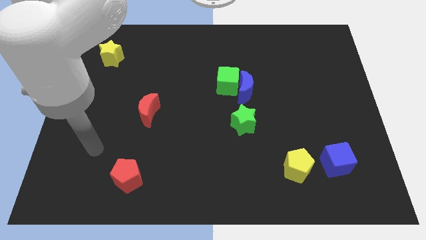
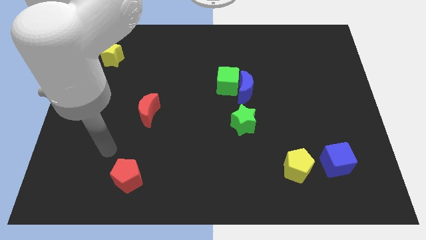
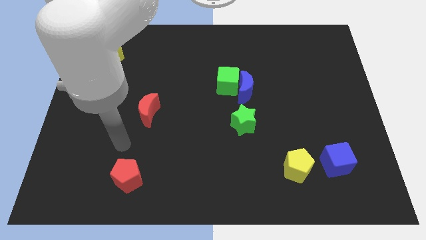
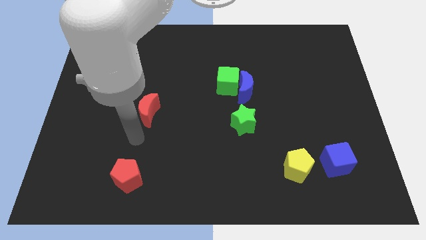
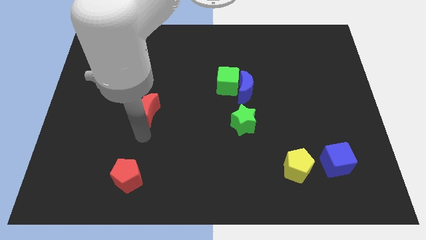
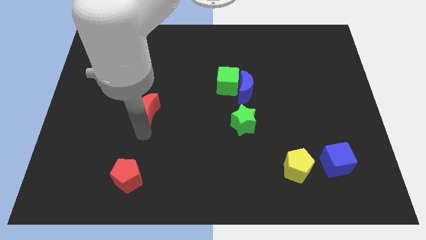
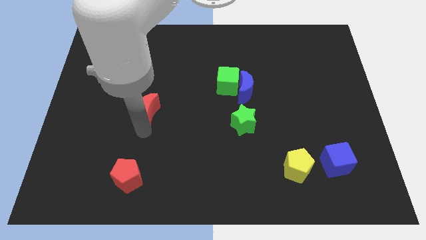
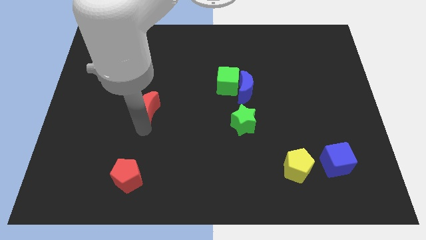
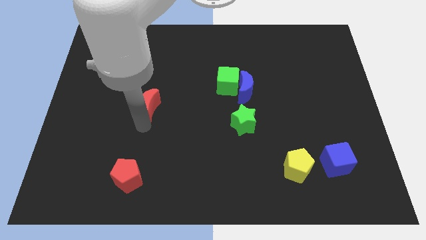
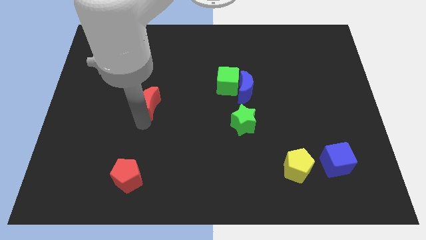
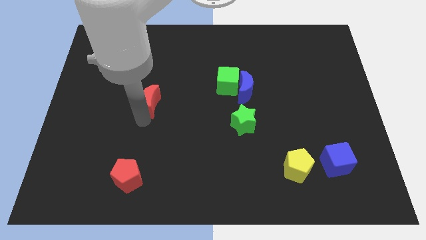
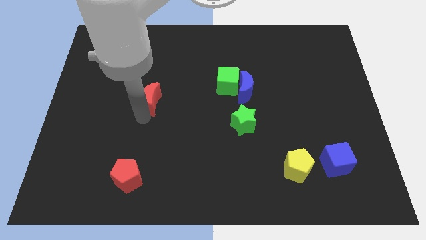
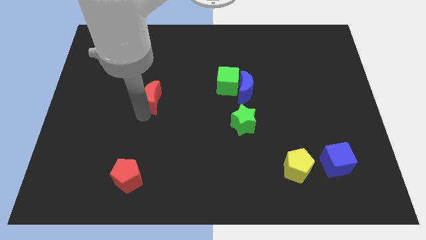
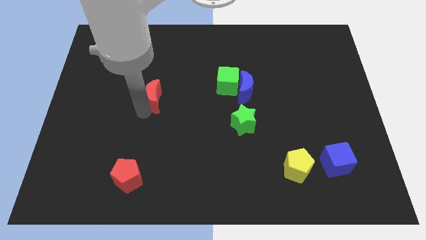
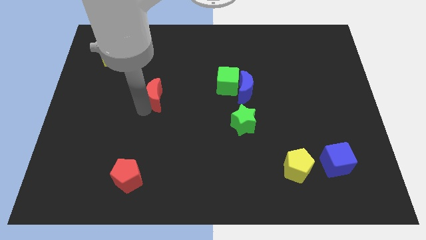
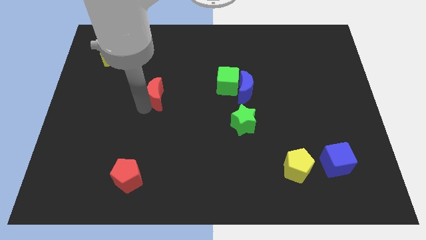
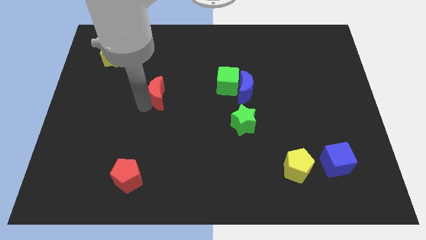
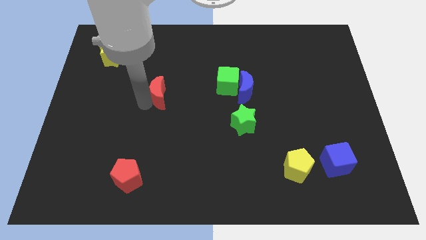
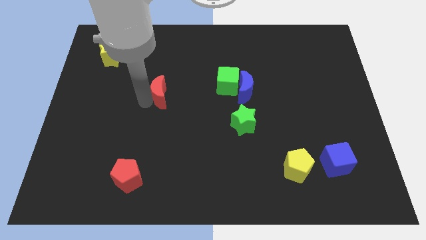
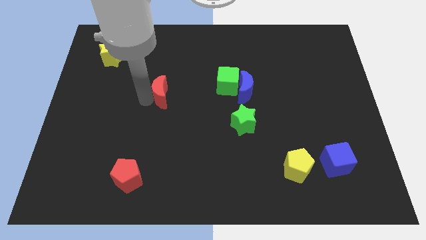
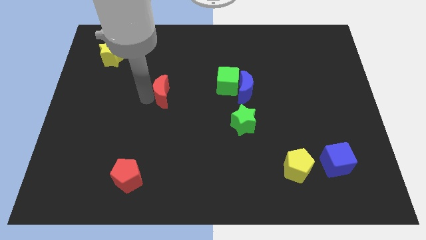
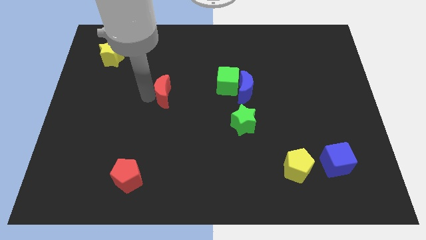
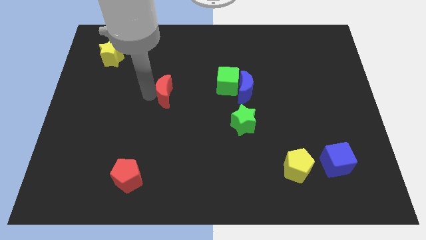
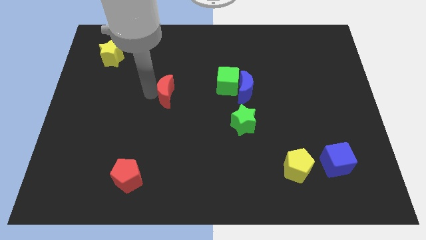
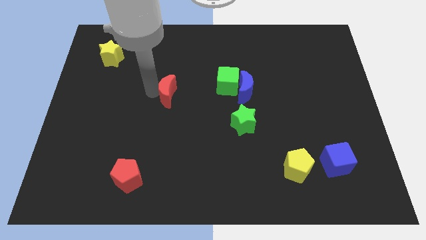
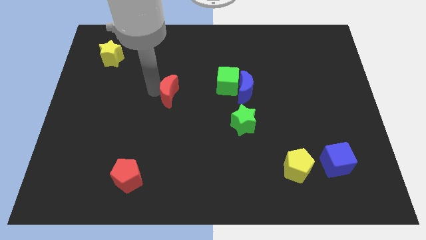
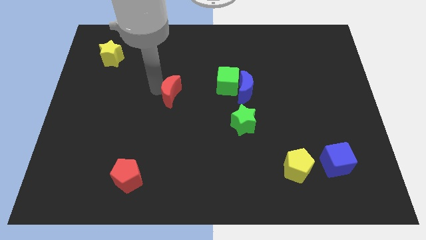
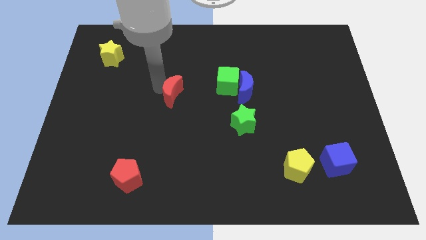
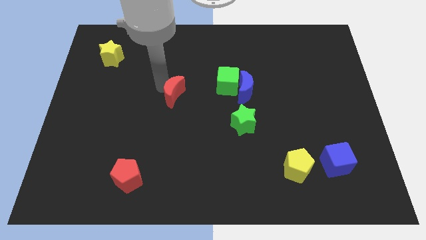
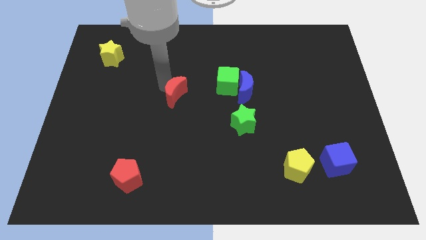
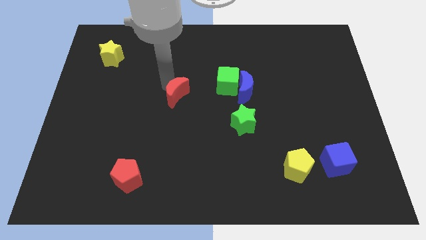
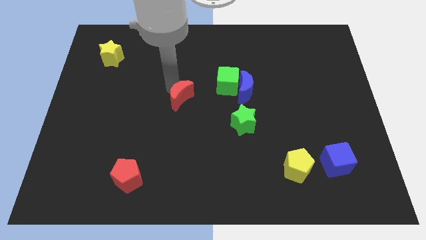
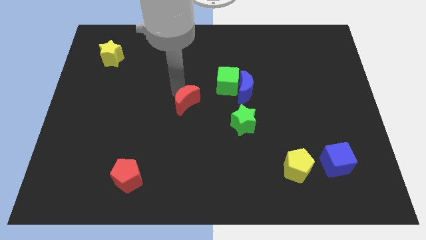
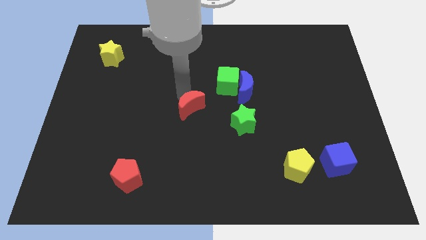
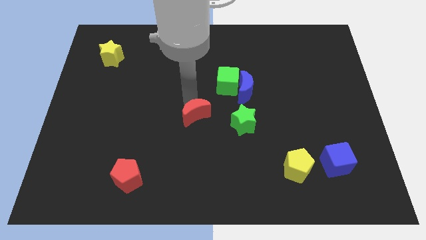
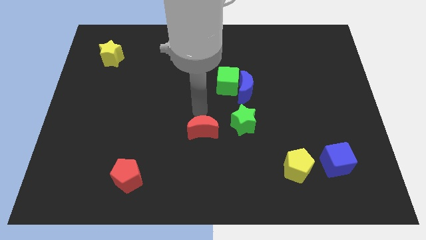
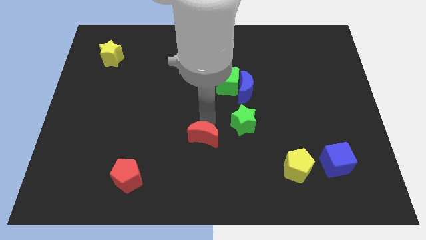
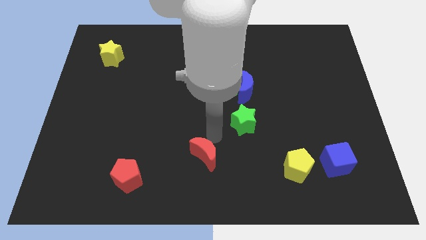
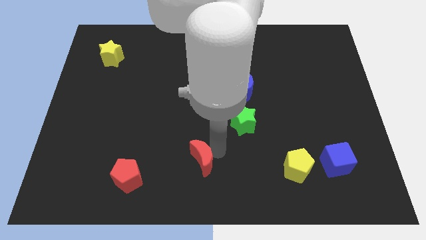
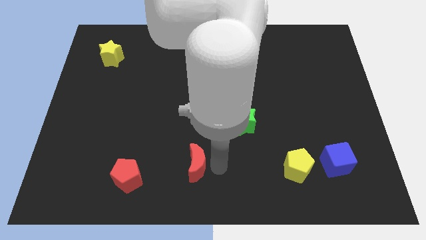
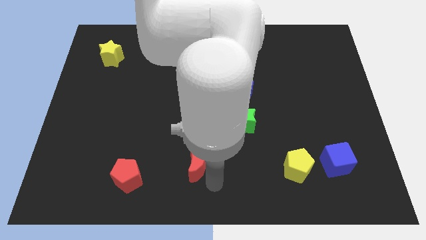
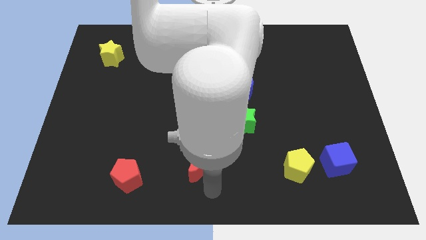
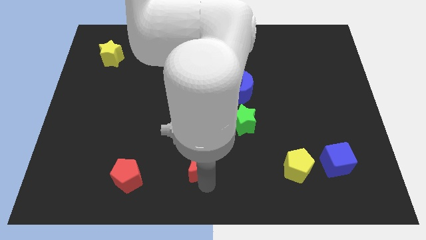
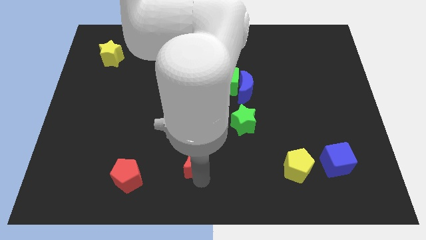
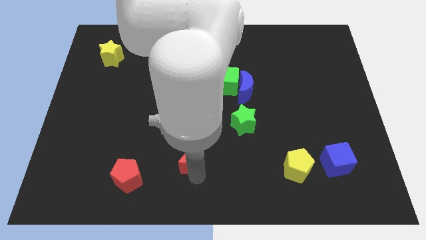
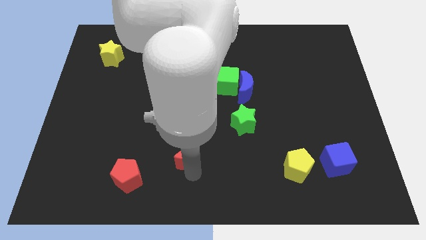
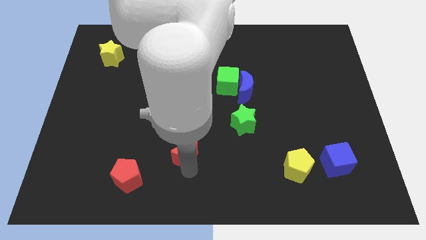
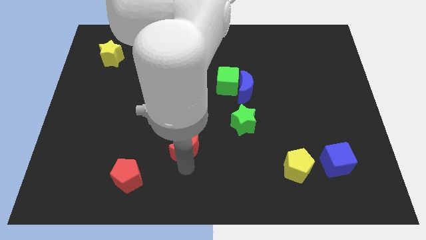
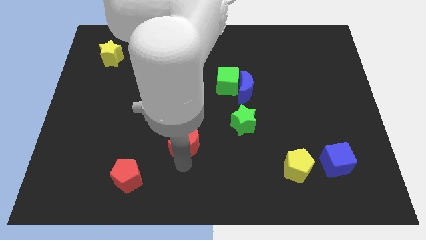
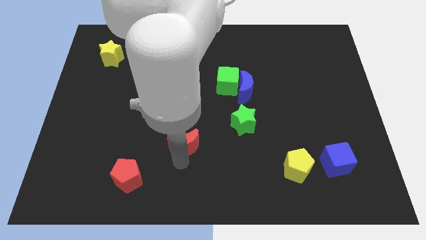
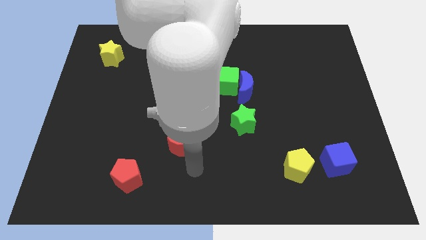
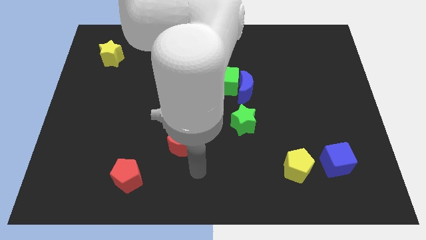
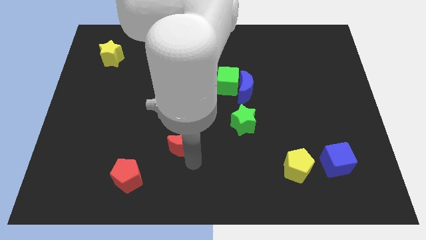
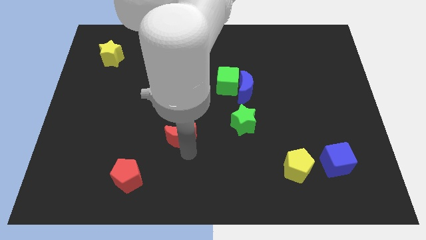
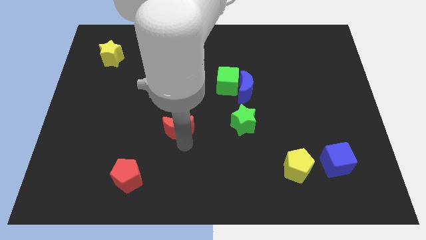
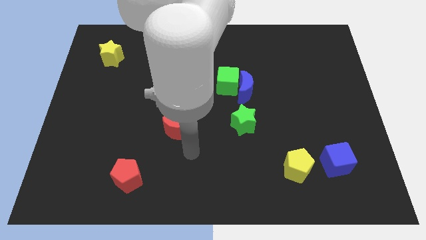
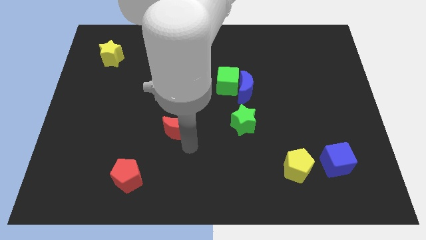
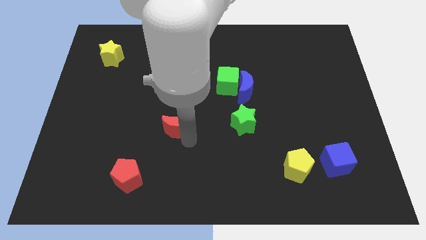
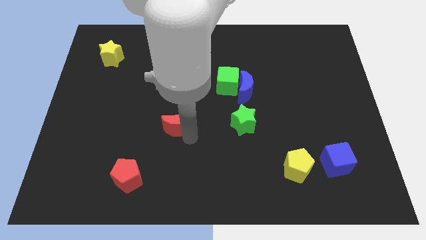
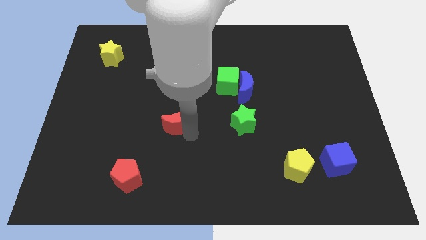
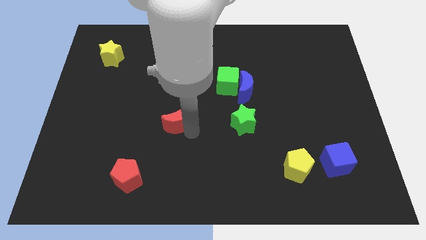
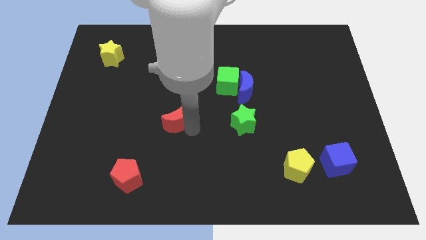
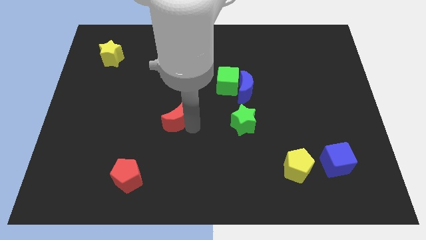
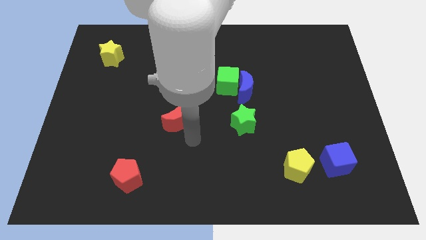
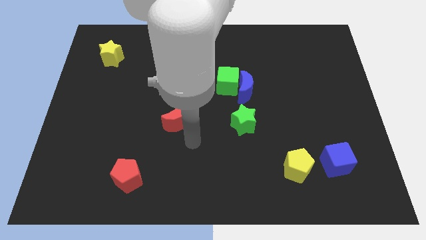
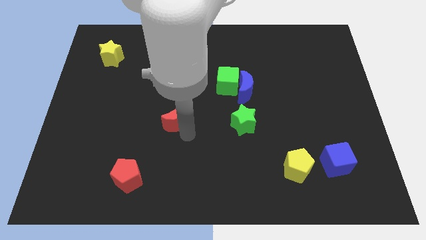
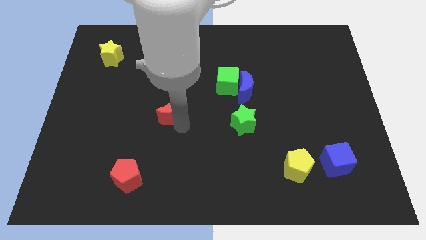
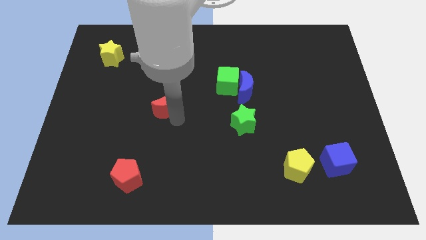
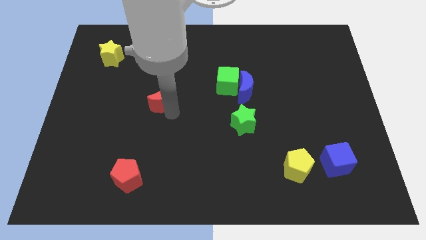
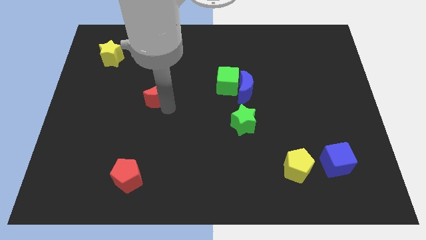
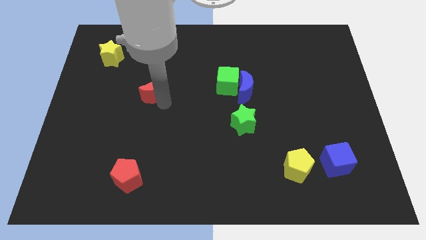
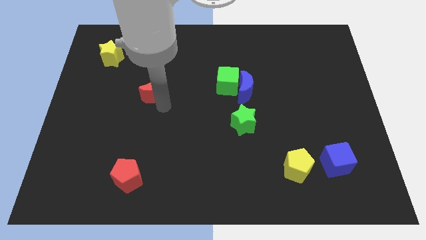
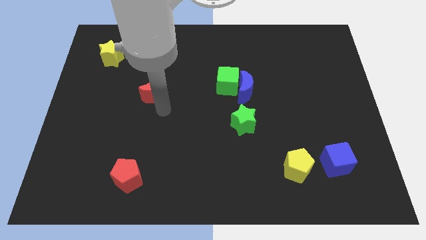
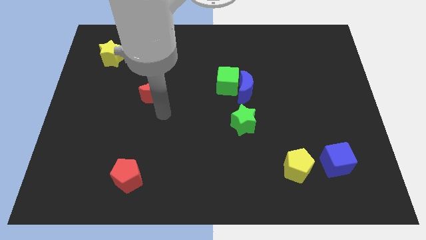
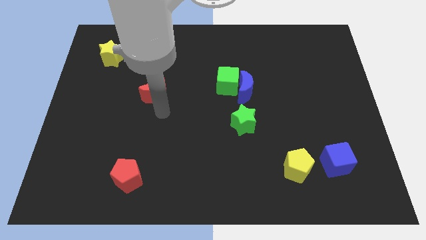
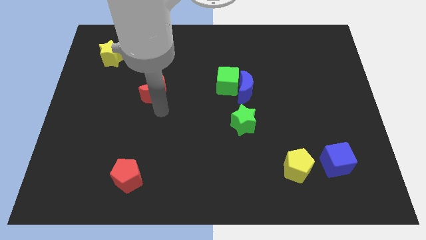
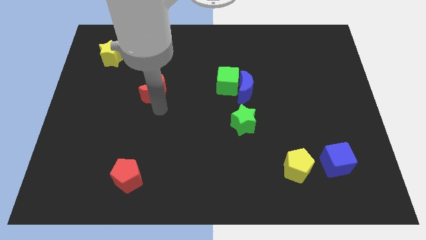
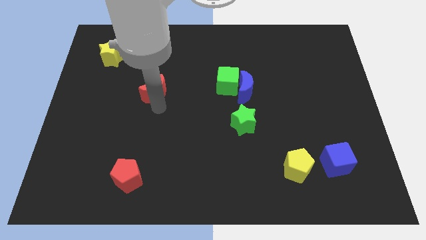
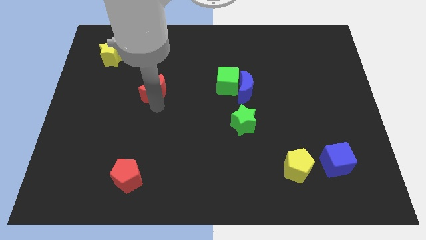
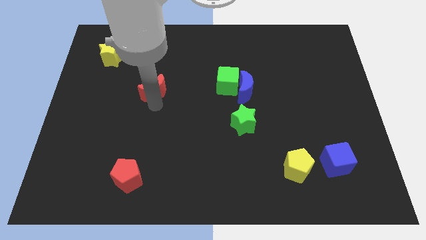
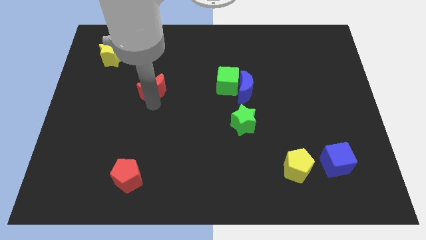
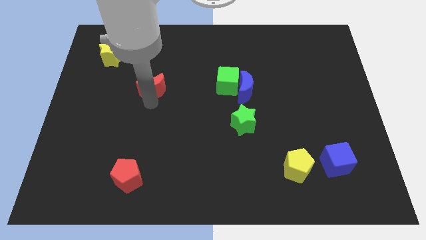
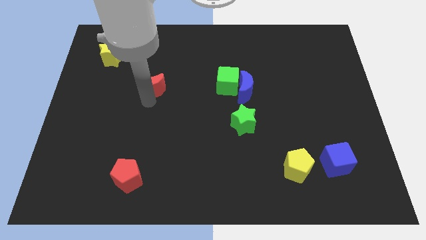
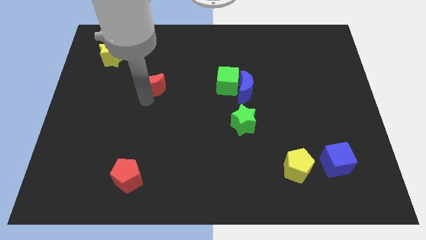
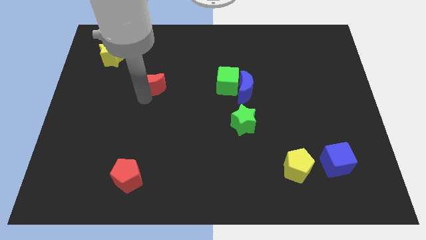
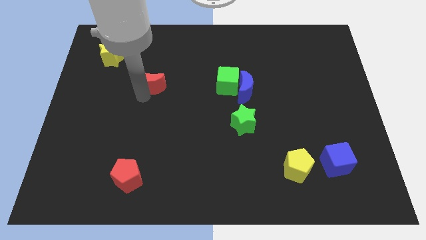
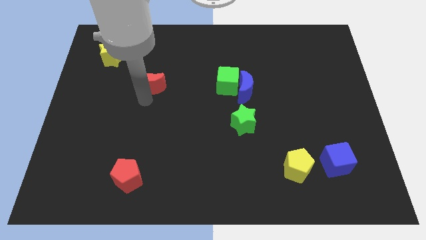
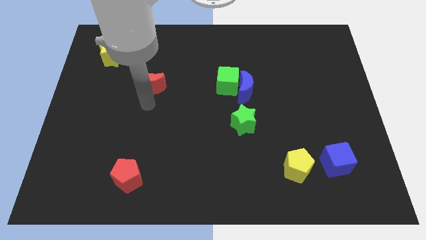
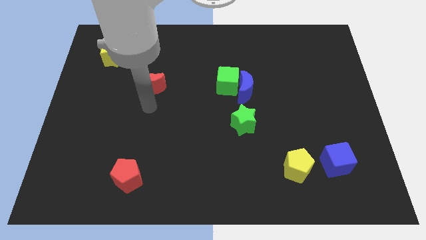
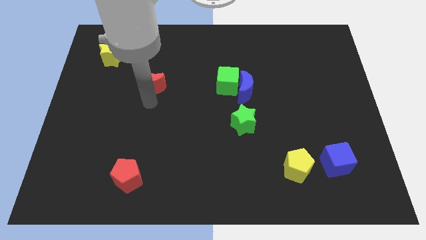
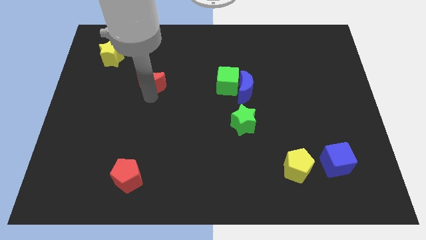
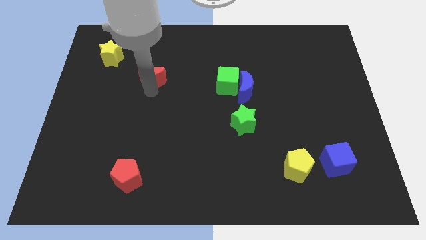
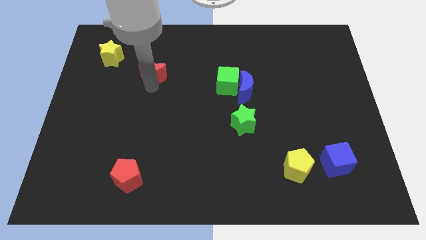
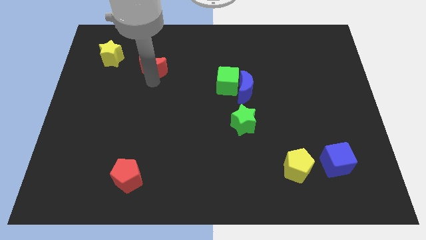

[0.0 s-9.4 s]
push the red moon to the right side of the yellow star
